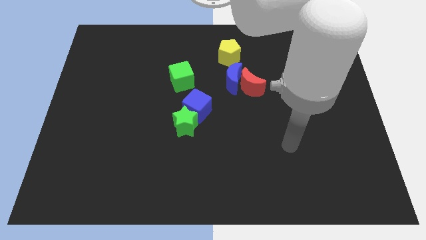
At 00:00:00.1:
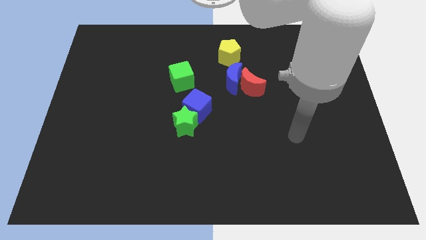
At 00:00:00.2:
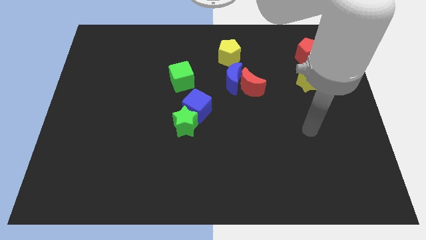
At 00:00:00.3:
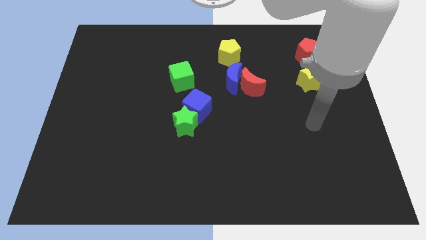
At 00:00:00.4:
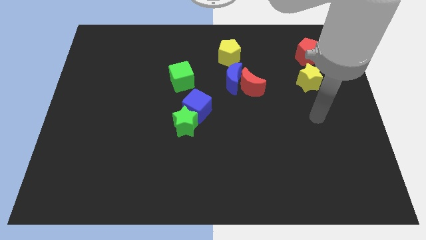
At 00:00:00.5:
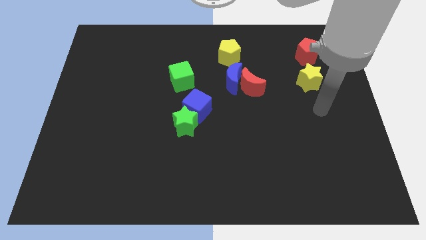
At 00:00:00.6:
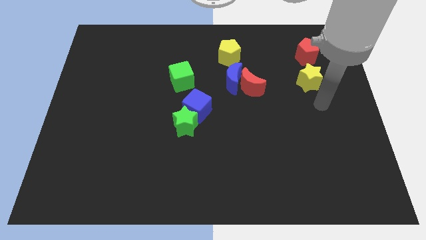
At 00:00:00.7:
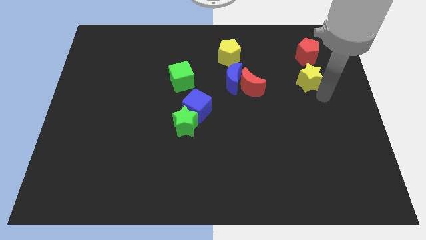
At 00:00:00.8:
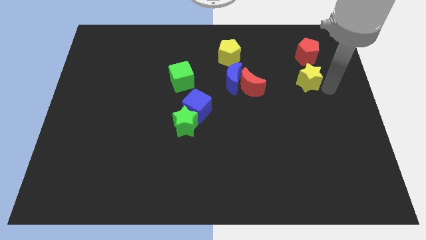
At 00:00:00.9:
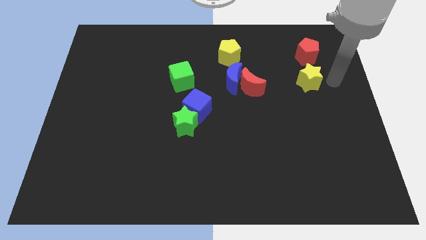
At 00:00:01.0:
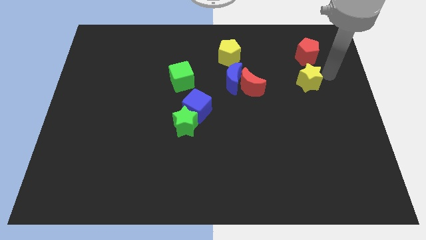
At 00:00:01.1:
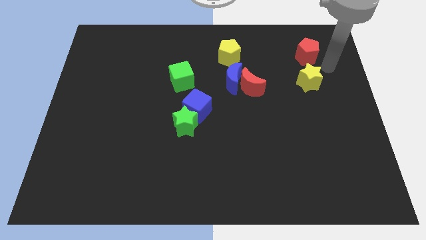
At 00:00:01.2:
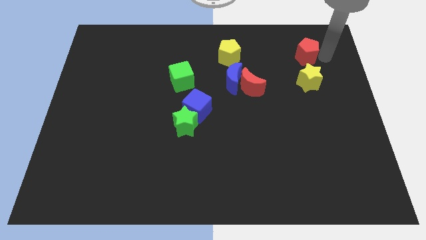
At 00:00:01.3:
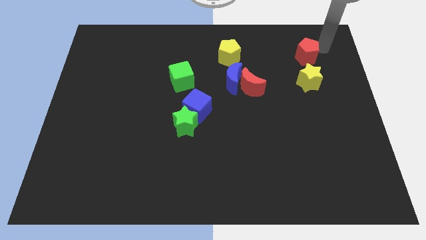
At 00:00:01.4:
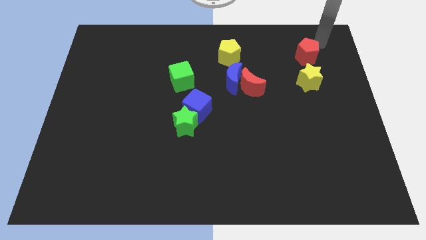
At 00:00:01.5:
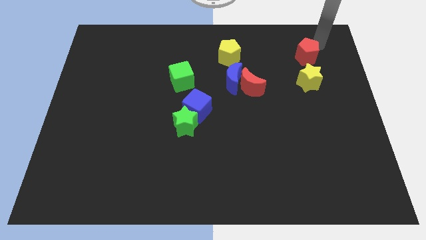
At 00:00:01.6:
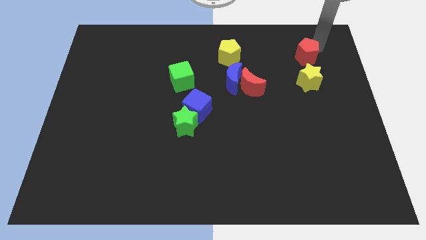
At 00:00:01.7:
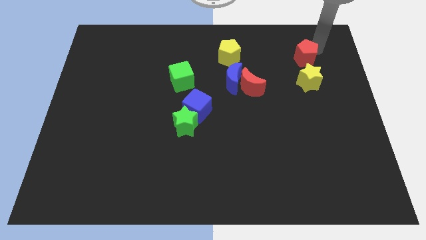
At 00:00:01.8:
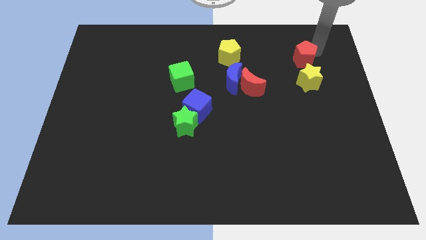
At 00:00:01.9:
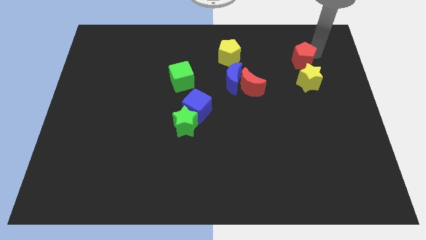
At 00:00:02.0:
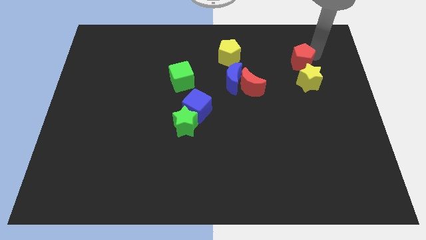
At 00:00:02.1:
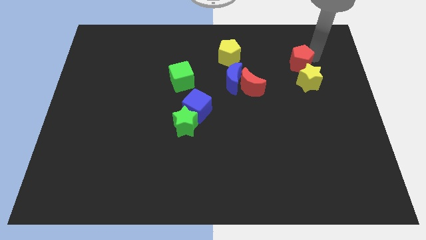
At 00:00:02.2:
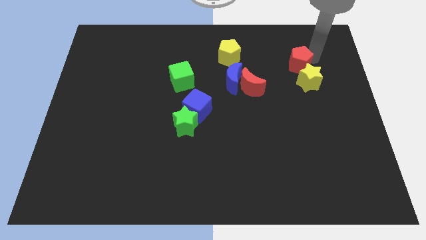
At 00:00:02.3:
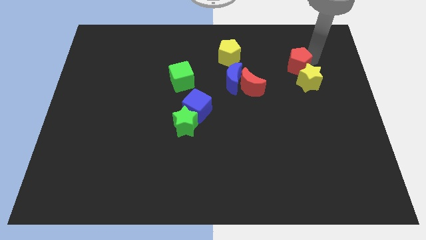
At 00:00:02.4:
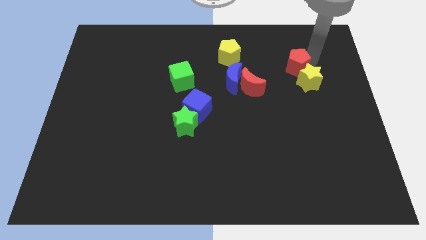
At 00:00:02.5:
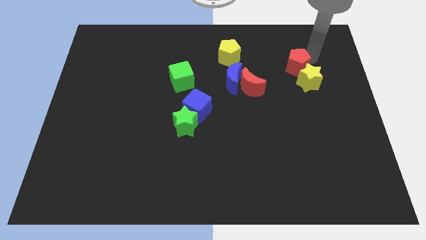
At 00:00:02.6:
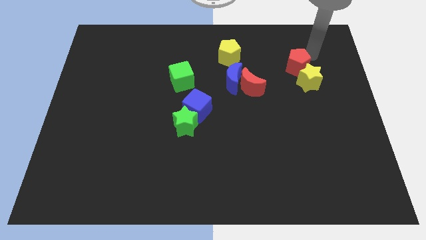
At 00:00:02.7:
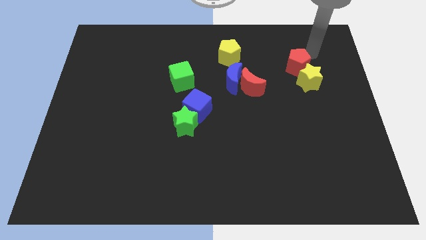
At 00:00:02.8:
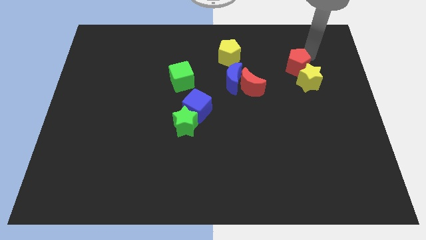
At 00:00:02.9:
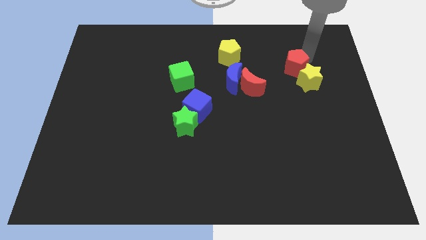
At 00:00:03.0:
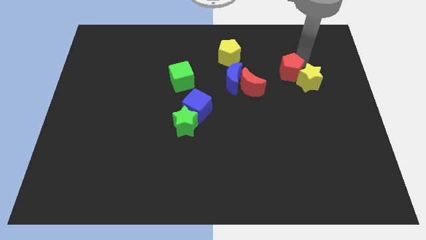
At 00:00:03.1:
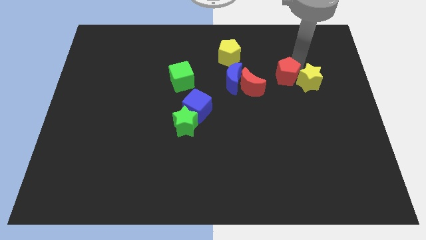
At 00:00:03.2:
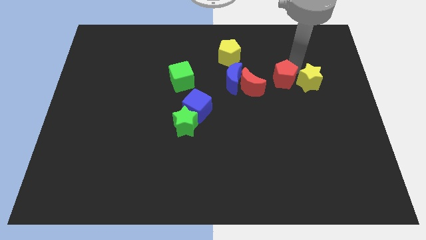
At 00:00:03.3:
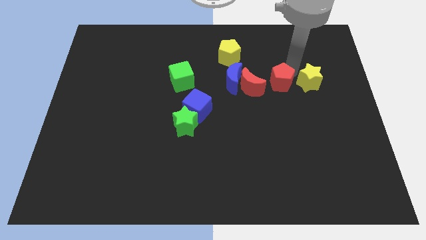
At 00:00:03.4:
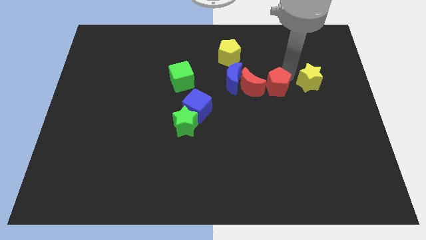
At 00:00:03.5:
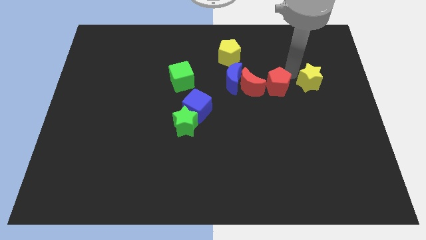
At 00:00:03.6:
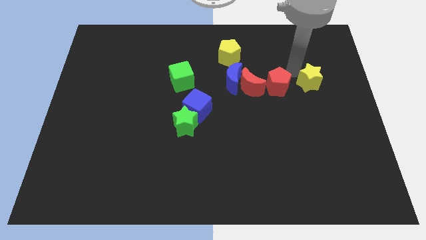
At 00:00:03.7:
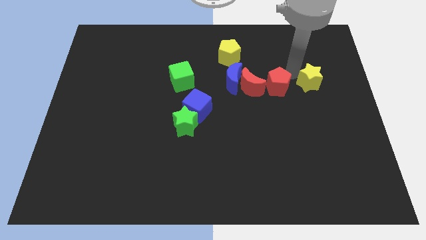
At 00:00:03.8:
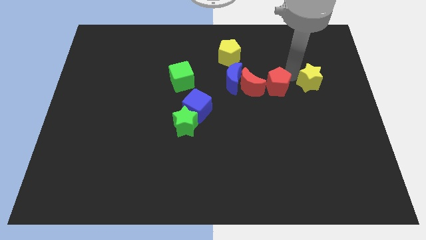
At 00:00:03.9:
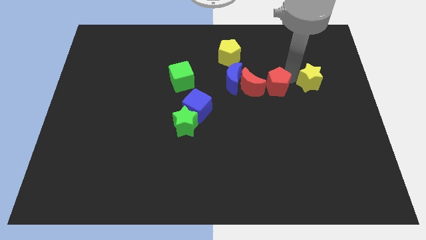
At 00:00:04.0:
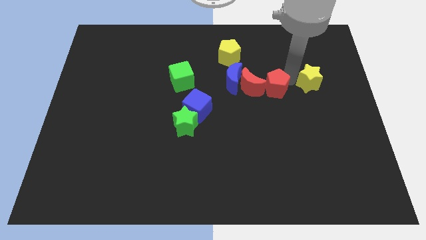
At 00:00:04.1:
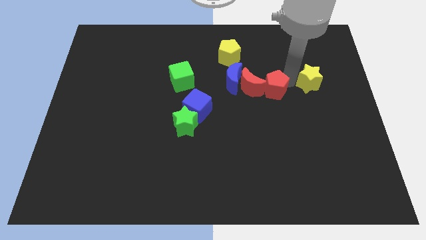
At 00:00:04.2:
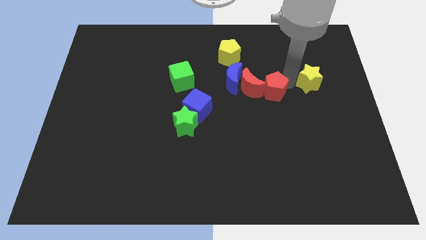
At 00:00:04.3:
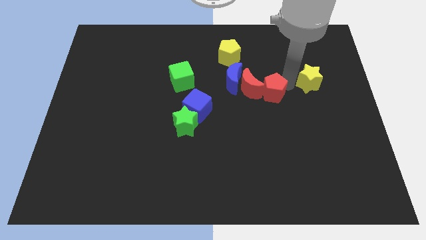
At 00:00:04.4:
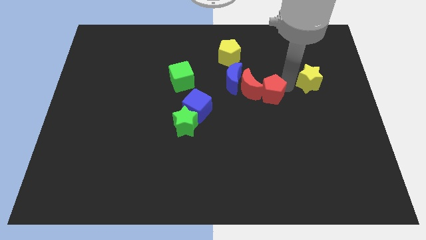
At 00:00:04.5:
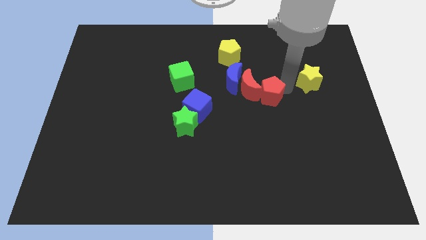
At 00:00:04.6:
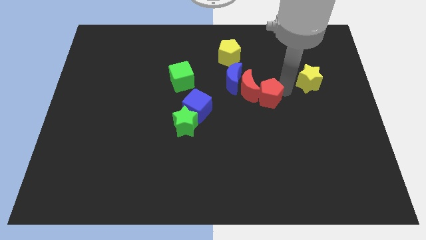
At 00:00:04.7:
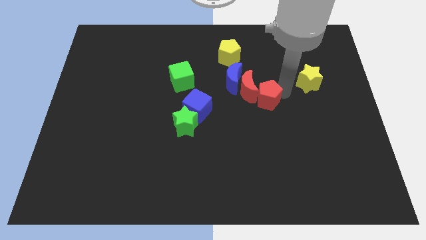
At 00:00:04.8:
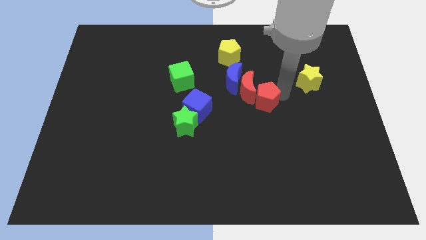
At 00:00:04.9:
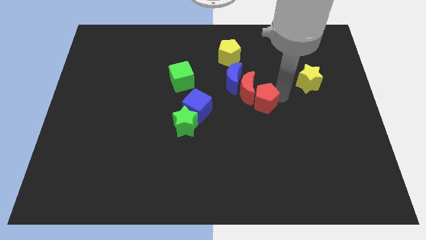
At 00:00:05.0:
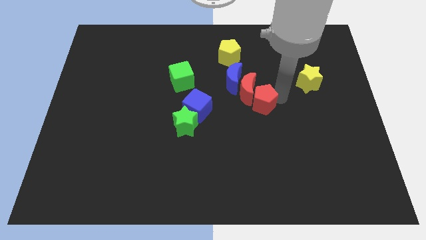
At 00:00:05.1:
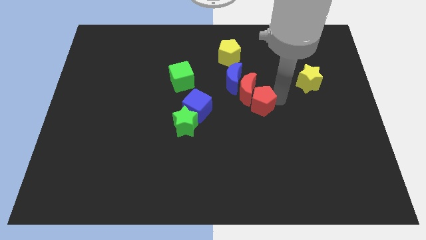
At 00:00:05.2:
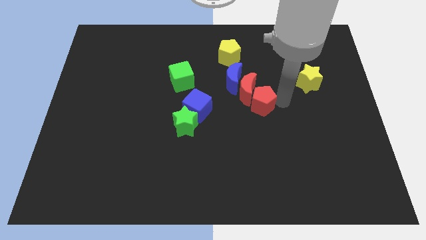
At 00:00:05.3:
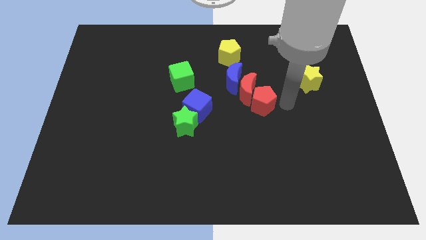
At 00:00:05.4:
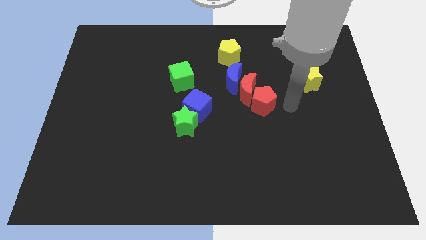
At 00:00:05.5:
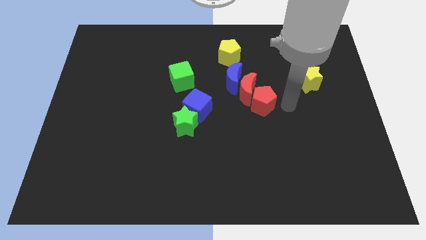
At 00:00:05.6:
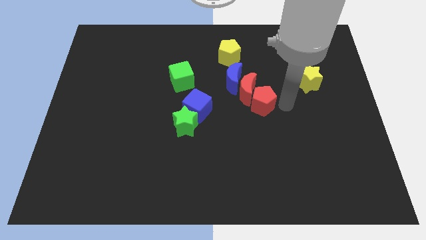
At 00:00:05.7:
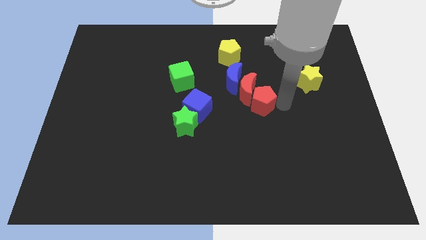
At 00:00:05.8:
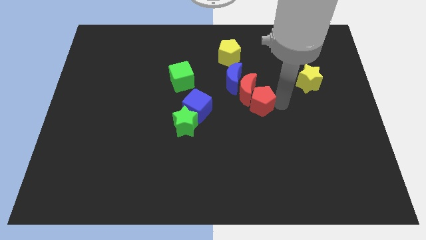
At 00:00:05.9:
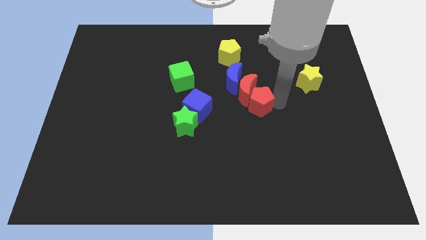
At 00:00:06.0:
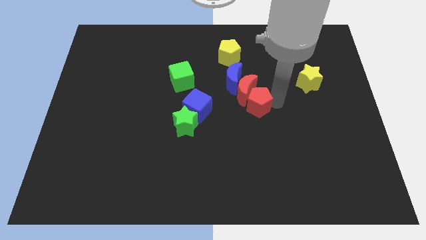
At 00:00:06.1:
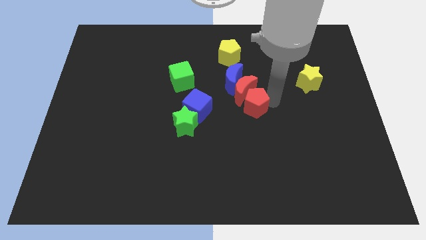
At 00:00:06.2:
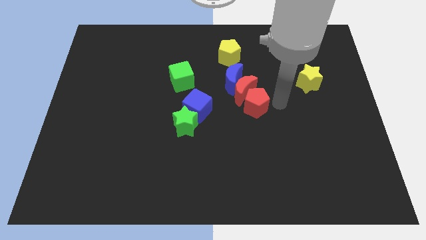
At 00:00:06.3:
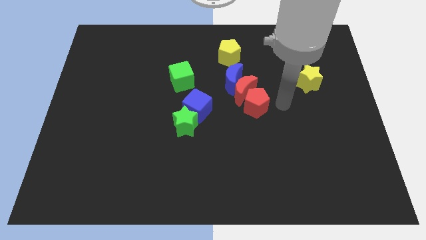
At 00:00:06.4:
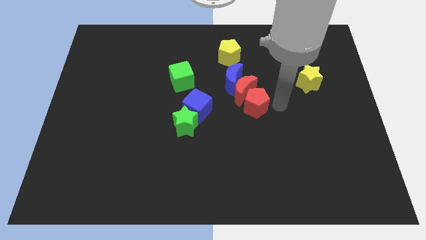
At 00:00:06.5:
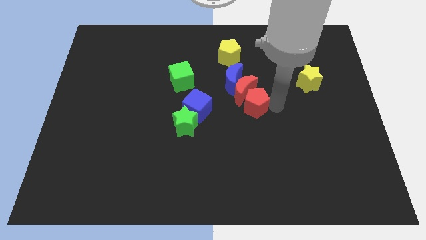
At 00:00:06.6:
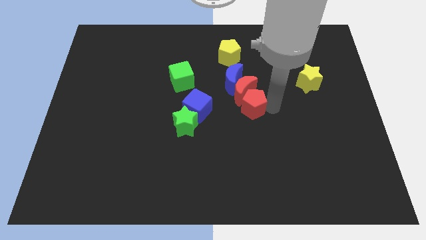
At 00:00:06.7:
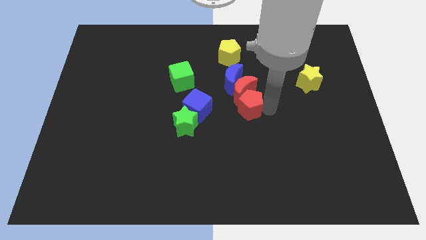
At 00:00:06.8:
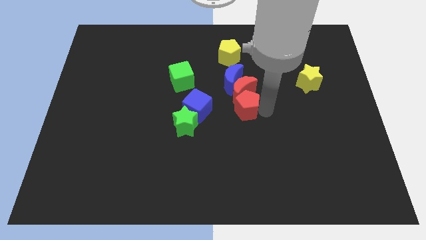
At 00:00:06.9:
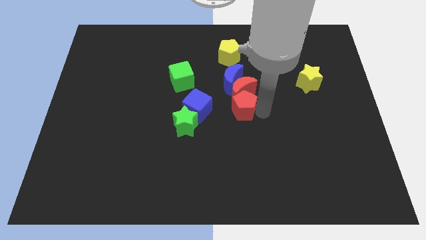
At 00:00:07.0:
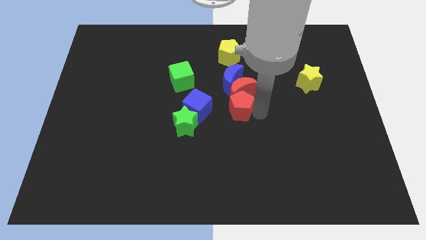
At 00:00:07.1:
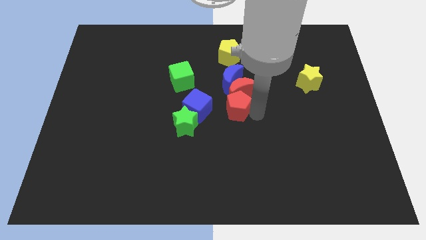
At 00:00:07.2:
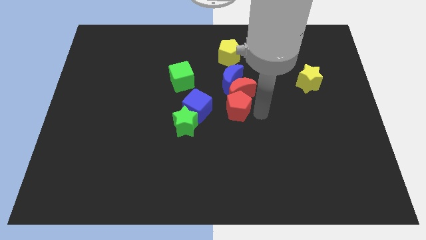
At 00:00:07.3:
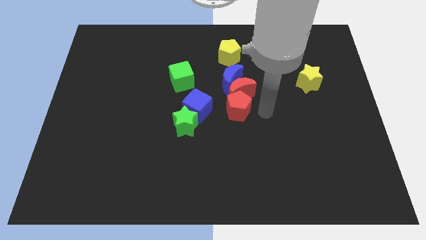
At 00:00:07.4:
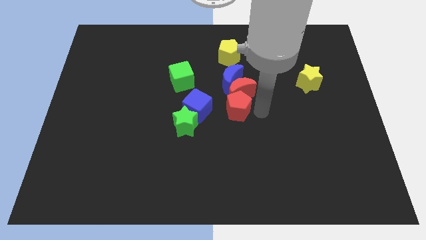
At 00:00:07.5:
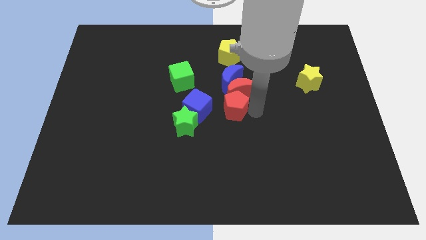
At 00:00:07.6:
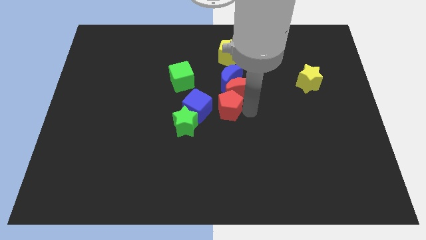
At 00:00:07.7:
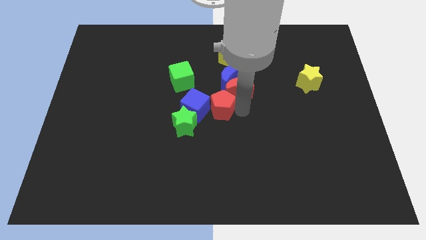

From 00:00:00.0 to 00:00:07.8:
push the red pentagon close to the blue cube
